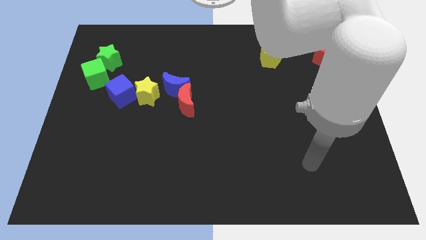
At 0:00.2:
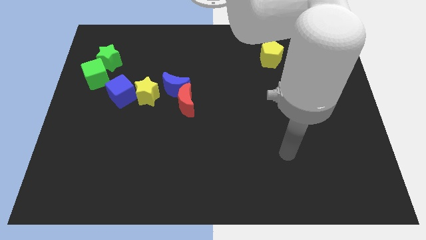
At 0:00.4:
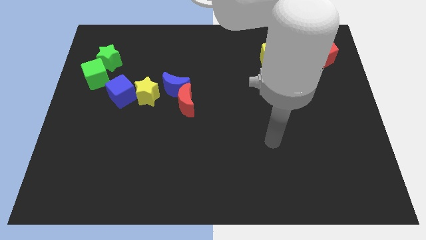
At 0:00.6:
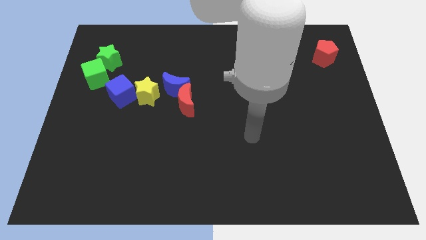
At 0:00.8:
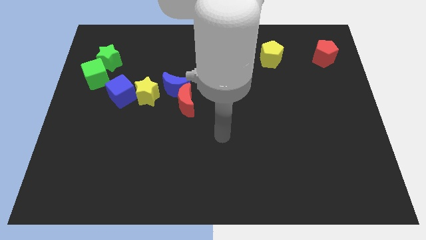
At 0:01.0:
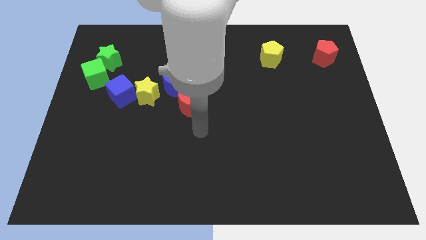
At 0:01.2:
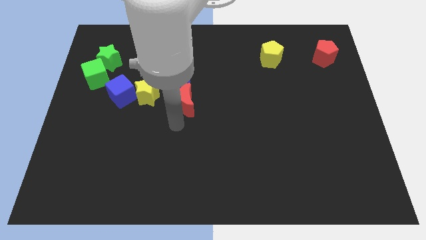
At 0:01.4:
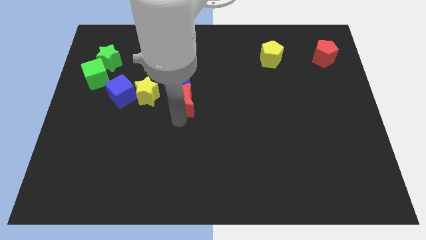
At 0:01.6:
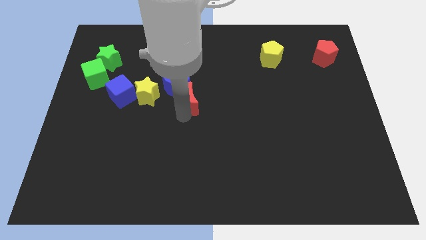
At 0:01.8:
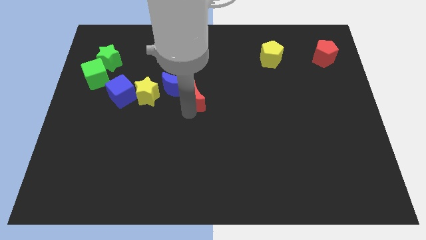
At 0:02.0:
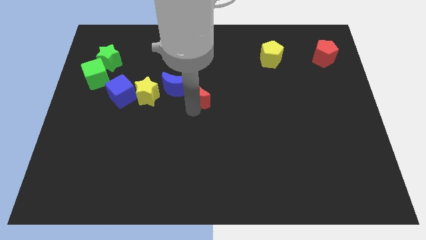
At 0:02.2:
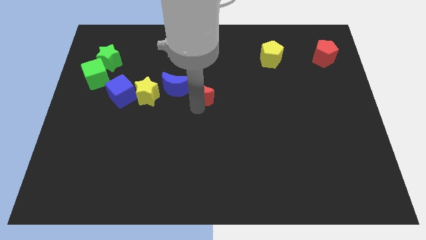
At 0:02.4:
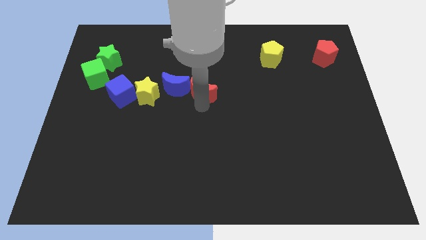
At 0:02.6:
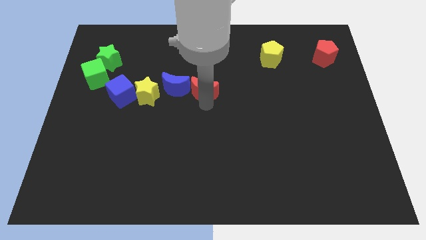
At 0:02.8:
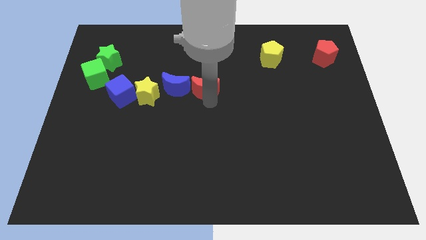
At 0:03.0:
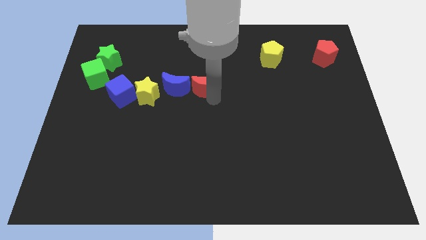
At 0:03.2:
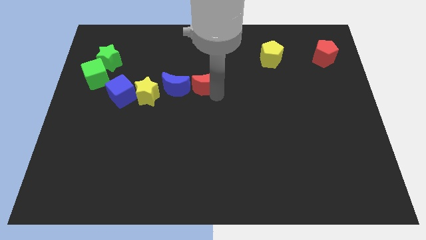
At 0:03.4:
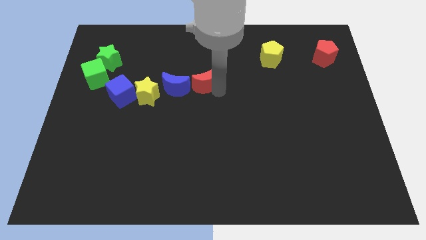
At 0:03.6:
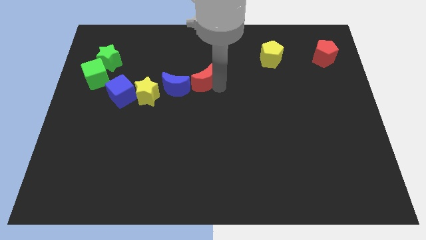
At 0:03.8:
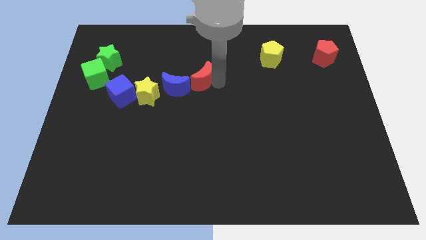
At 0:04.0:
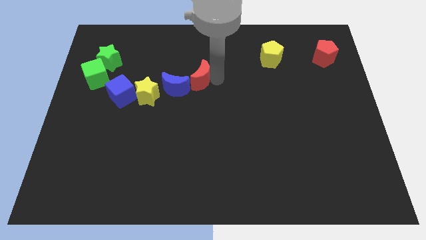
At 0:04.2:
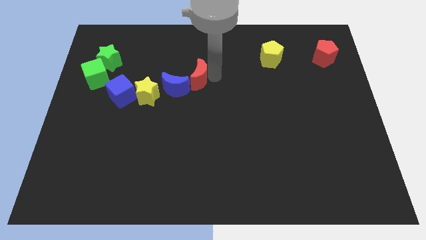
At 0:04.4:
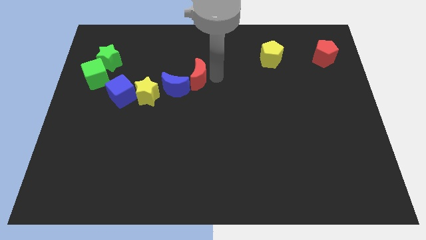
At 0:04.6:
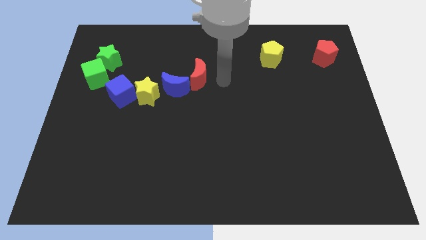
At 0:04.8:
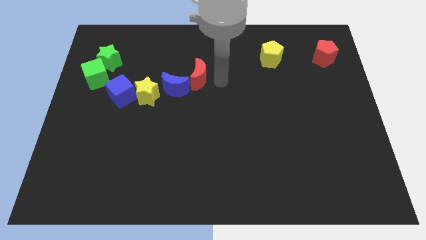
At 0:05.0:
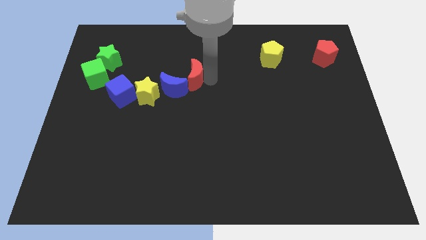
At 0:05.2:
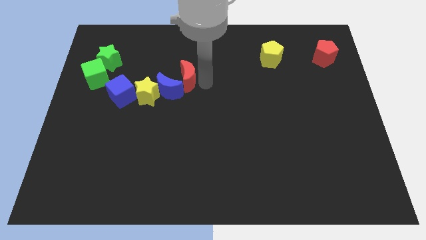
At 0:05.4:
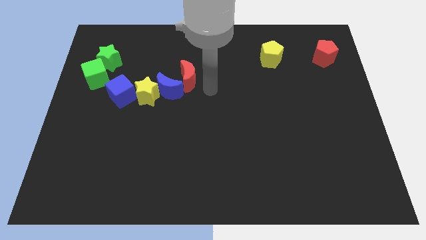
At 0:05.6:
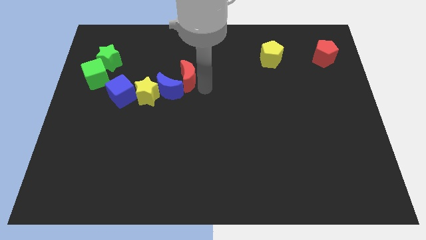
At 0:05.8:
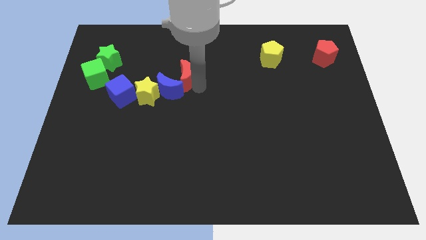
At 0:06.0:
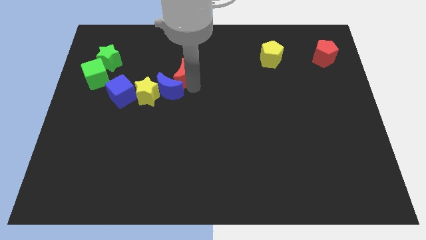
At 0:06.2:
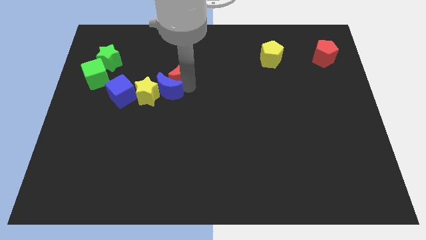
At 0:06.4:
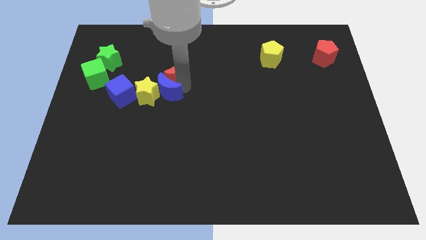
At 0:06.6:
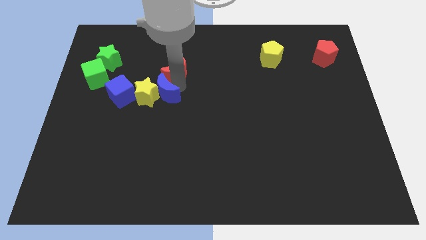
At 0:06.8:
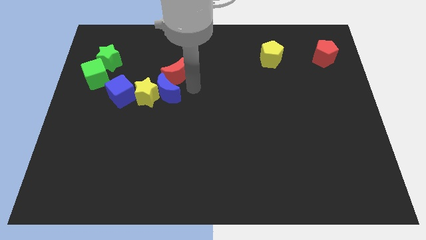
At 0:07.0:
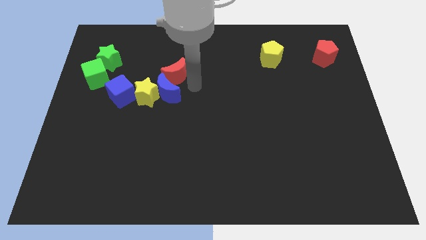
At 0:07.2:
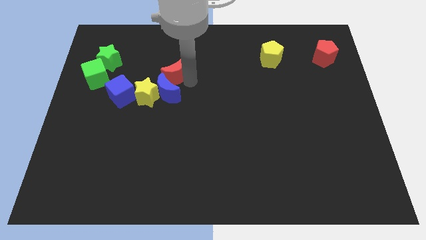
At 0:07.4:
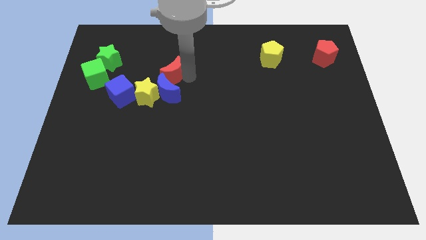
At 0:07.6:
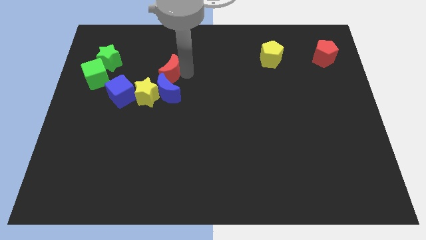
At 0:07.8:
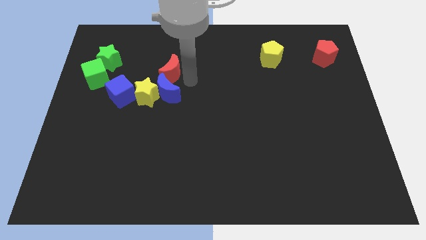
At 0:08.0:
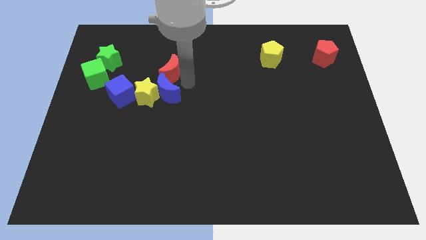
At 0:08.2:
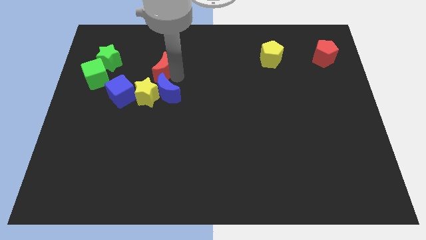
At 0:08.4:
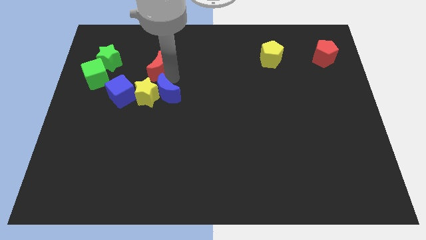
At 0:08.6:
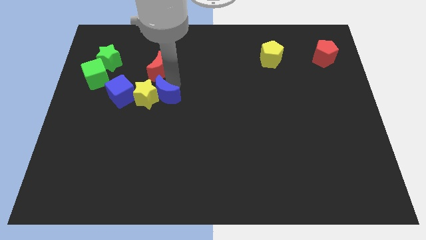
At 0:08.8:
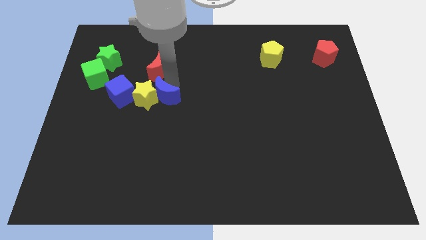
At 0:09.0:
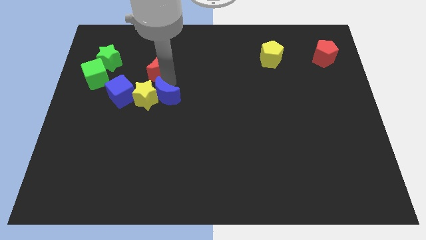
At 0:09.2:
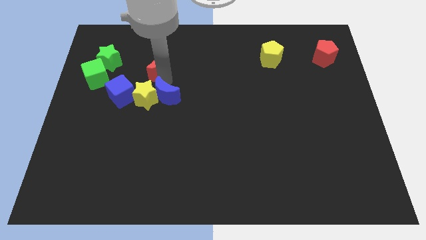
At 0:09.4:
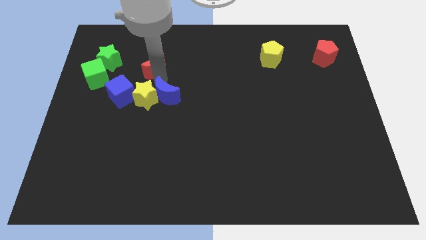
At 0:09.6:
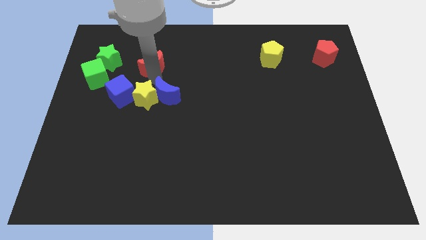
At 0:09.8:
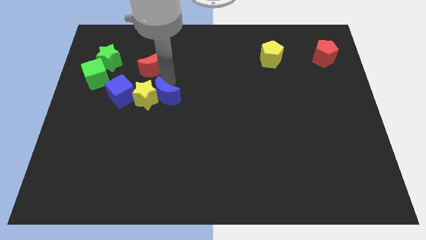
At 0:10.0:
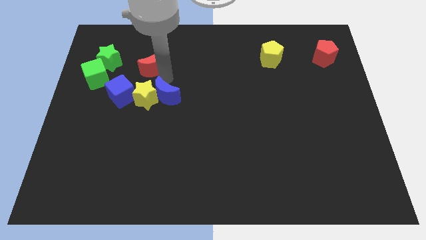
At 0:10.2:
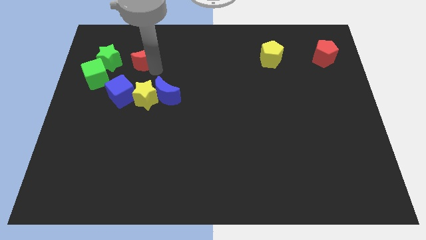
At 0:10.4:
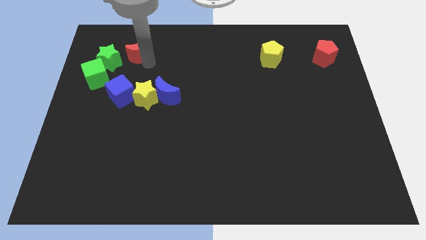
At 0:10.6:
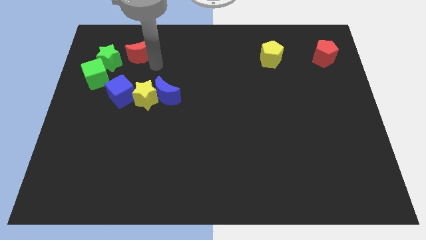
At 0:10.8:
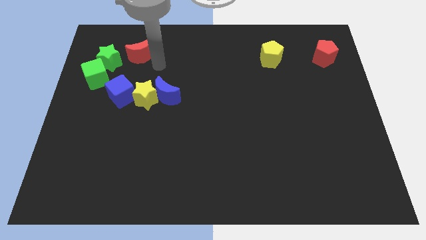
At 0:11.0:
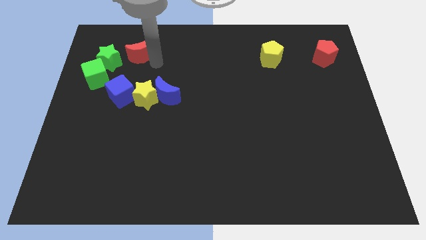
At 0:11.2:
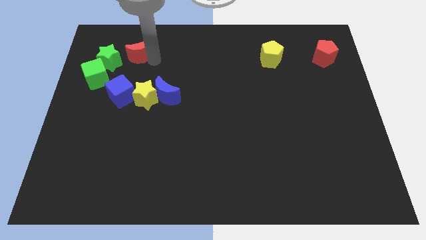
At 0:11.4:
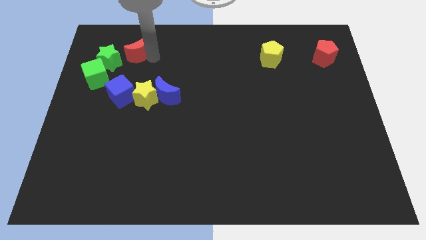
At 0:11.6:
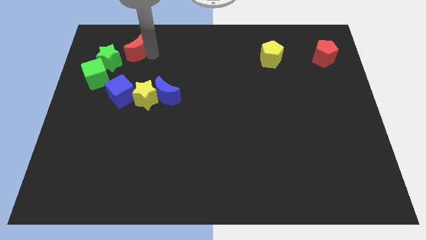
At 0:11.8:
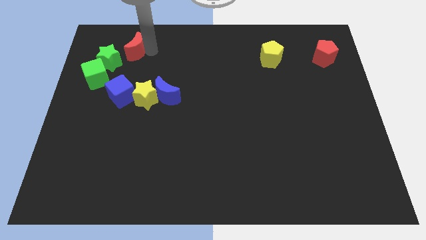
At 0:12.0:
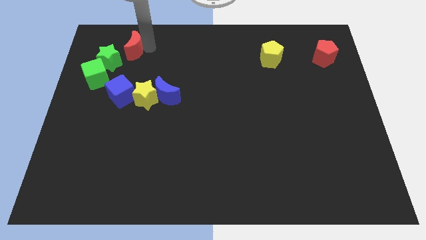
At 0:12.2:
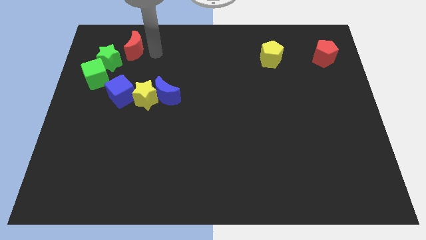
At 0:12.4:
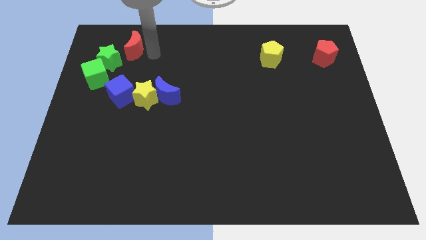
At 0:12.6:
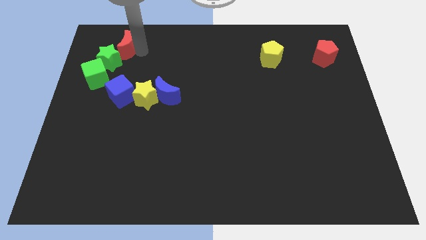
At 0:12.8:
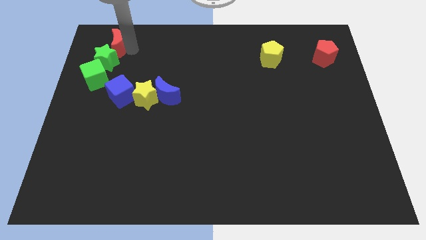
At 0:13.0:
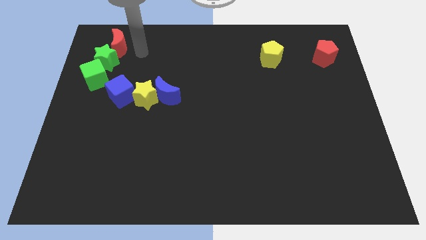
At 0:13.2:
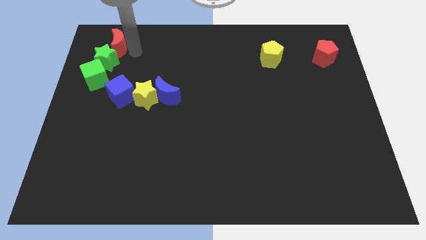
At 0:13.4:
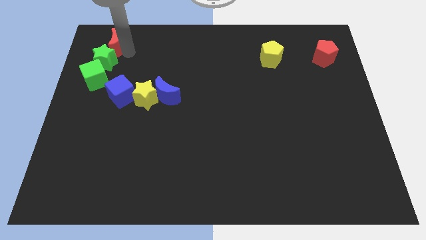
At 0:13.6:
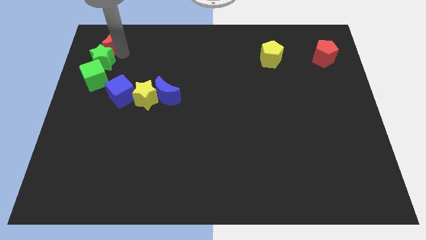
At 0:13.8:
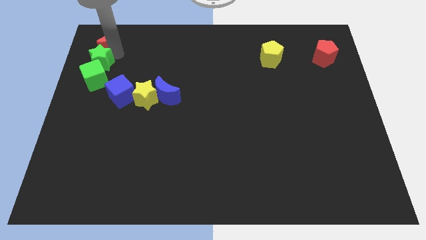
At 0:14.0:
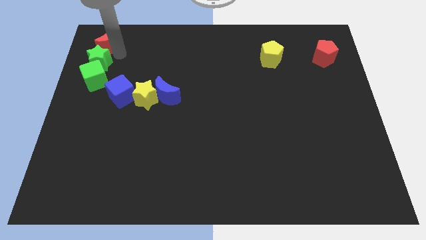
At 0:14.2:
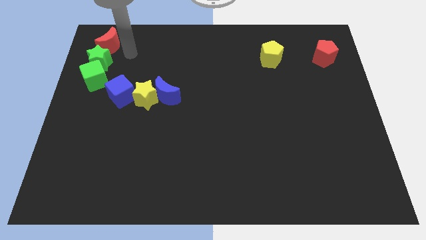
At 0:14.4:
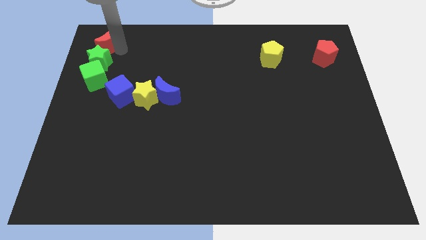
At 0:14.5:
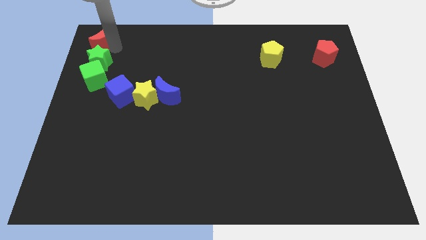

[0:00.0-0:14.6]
push the red moon to the top left of the board

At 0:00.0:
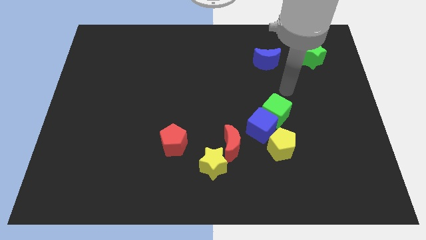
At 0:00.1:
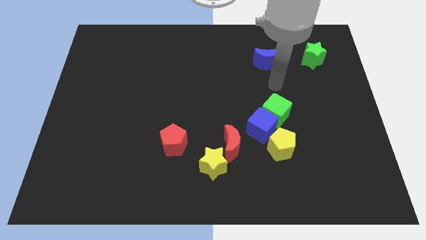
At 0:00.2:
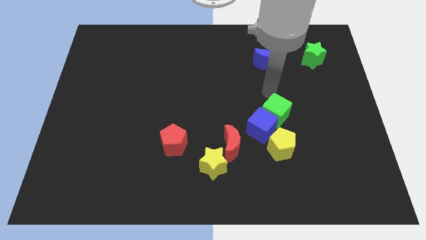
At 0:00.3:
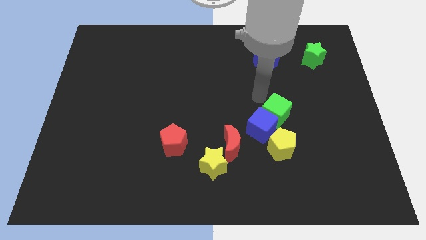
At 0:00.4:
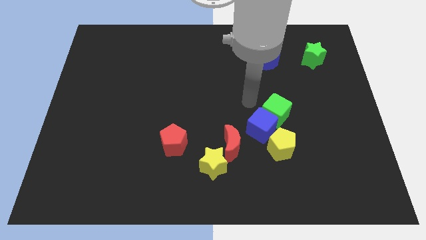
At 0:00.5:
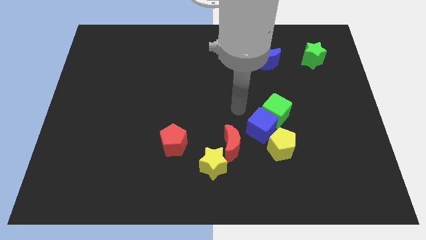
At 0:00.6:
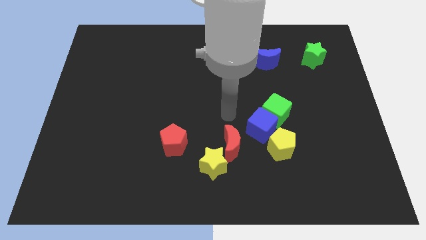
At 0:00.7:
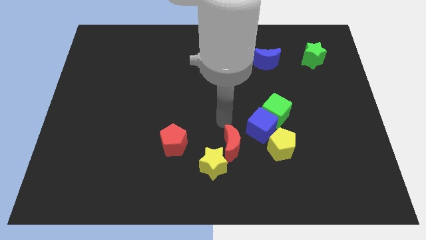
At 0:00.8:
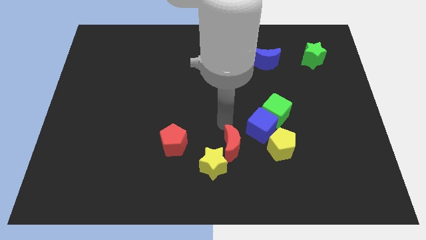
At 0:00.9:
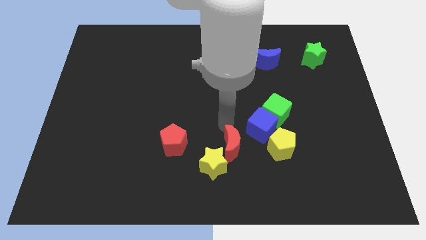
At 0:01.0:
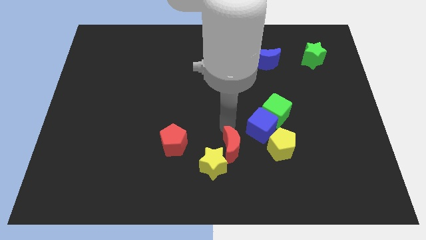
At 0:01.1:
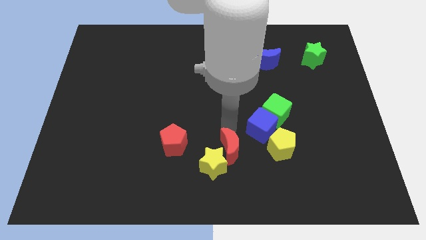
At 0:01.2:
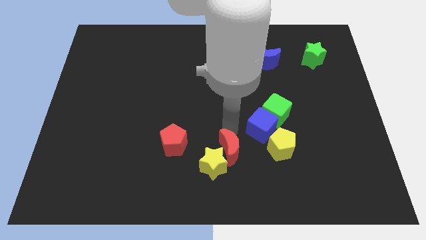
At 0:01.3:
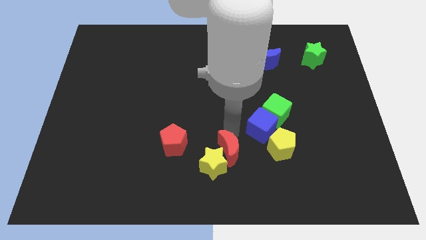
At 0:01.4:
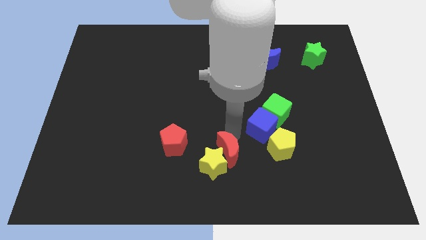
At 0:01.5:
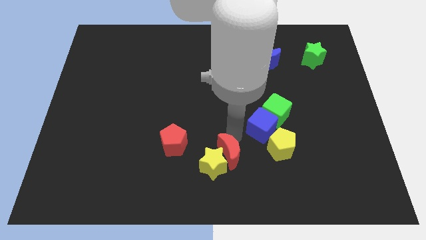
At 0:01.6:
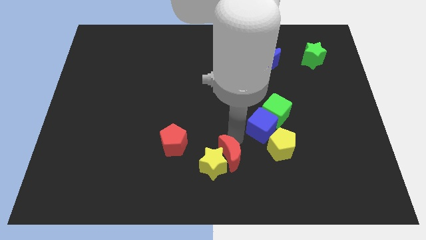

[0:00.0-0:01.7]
push the red moon to the bottom side
